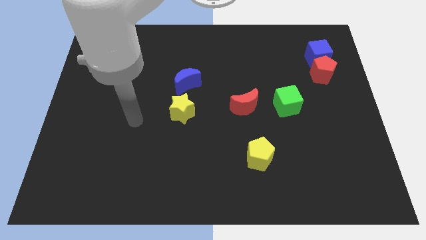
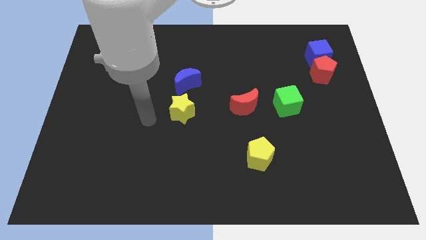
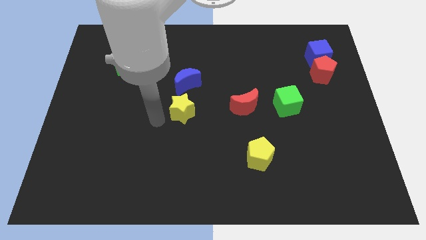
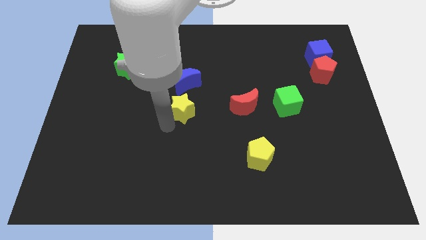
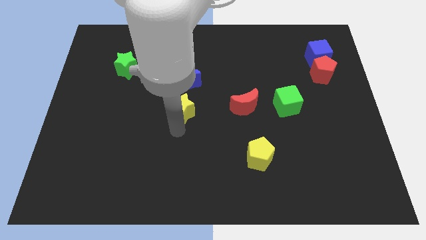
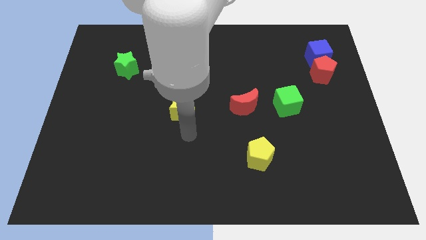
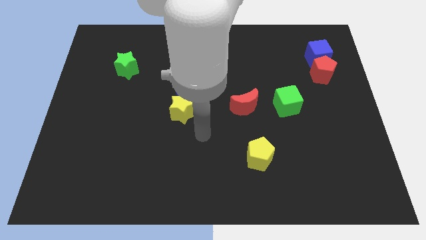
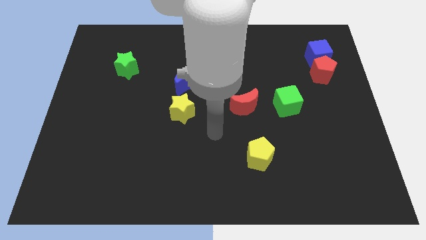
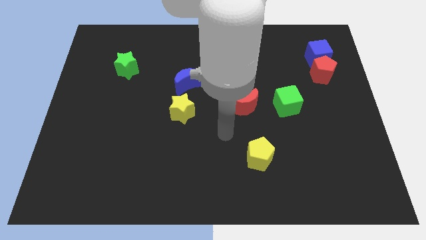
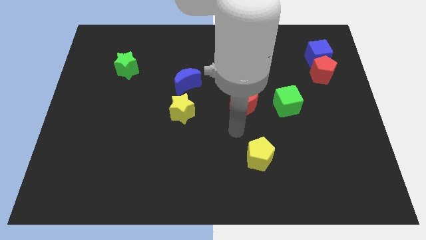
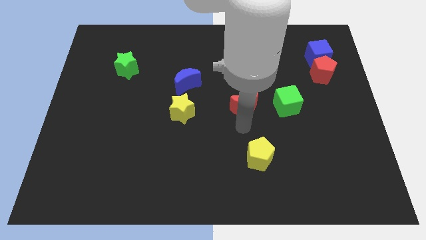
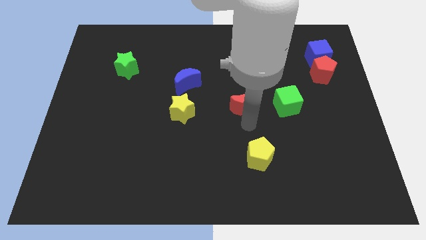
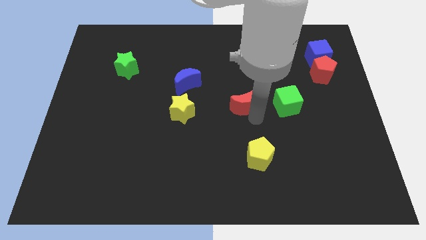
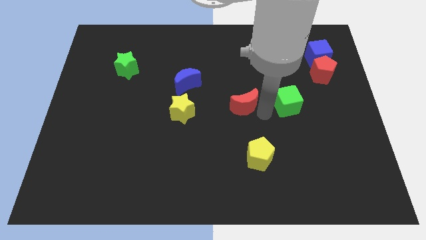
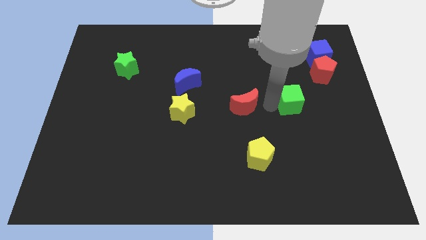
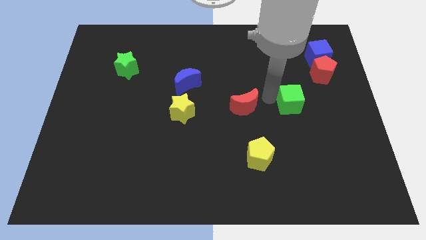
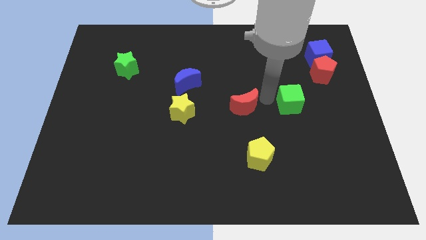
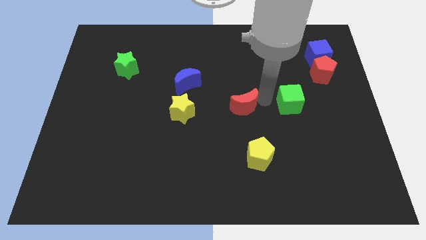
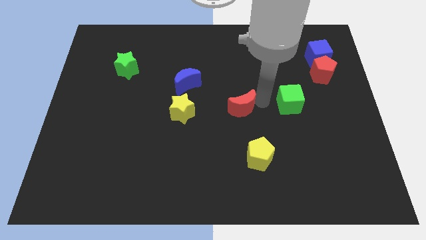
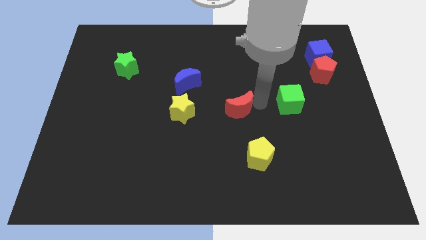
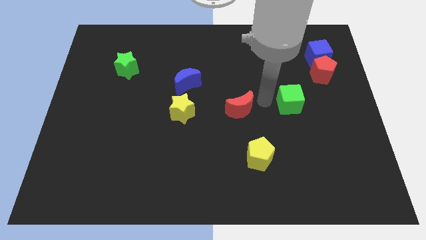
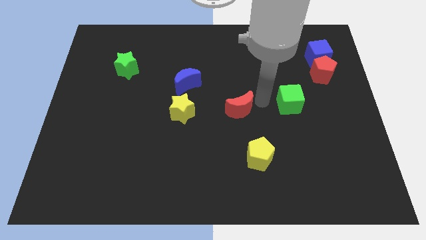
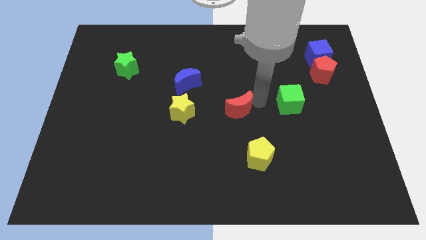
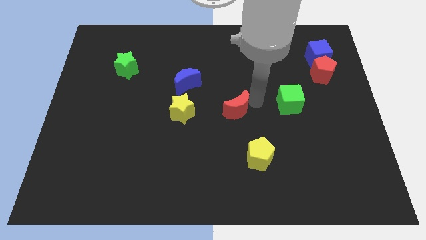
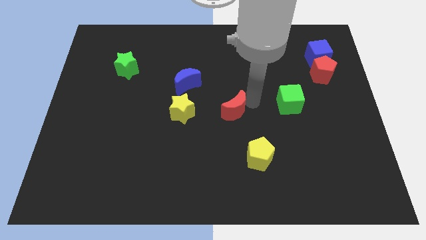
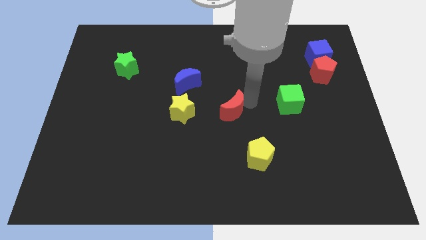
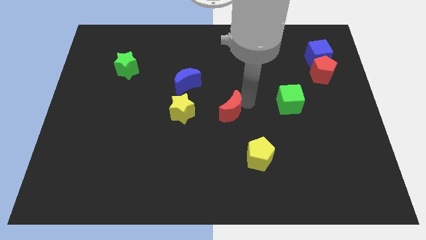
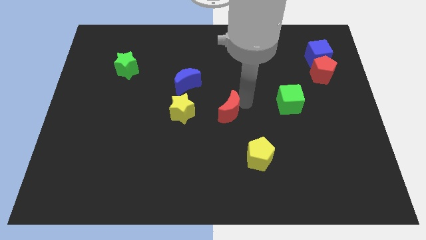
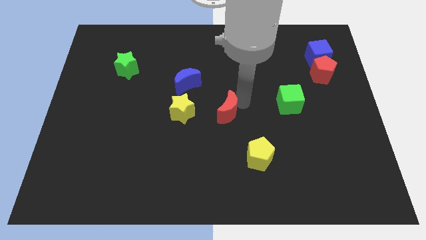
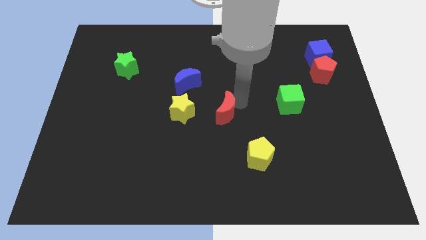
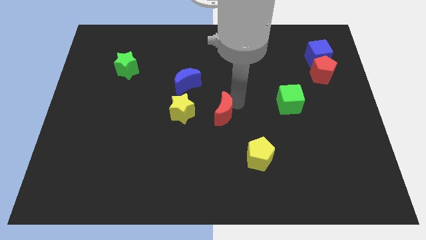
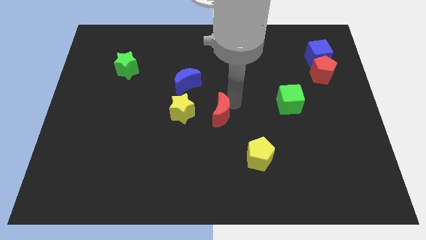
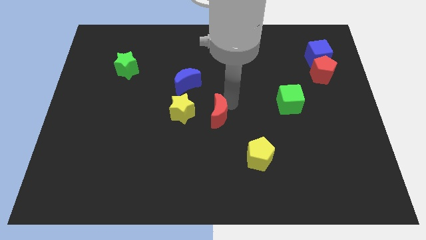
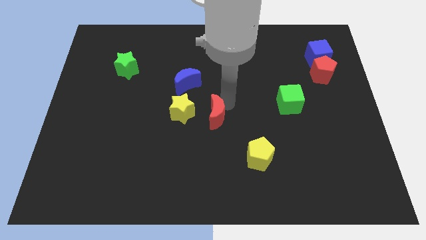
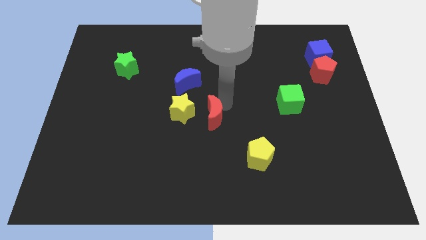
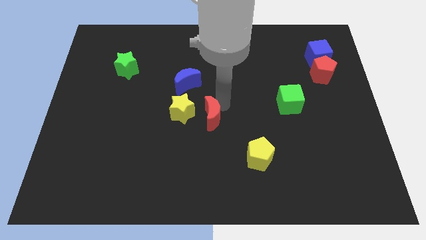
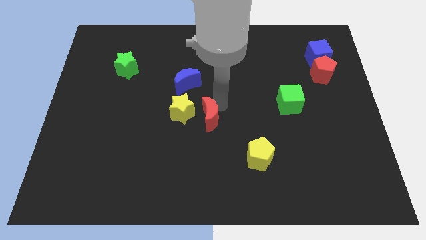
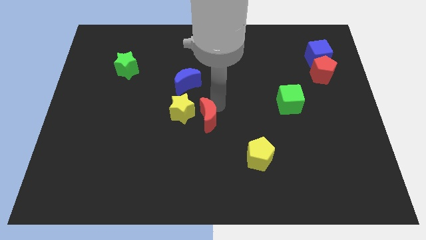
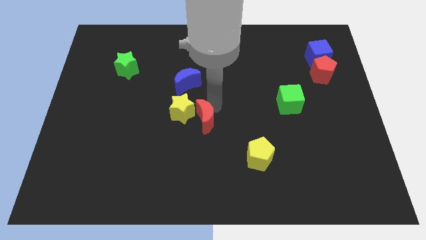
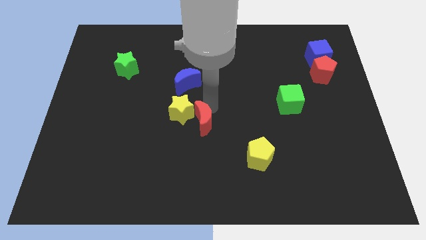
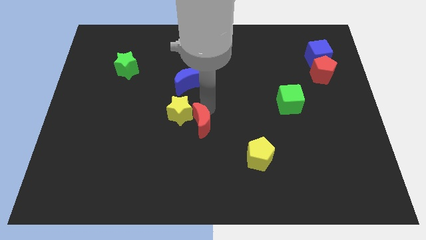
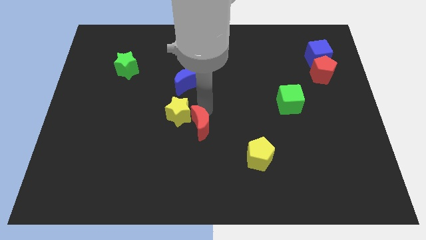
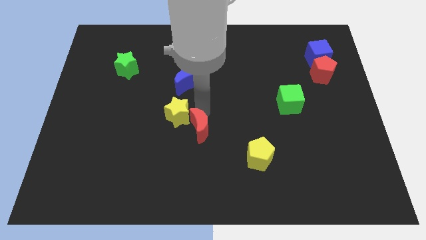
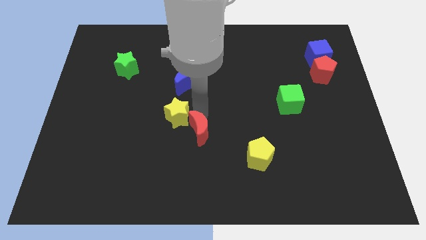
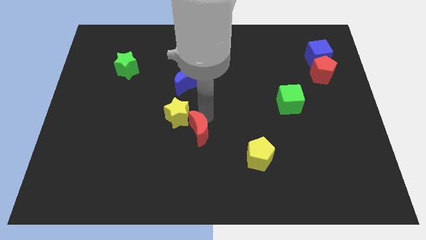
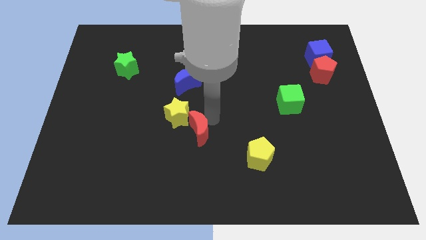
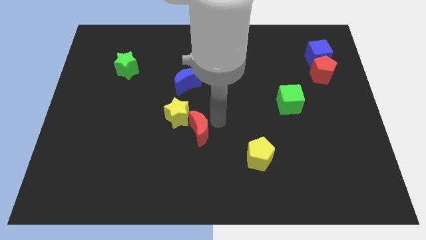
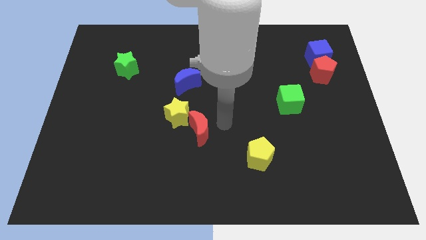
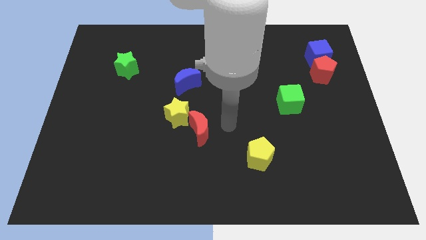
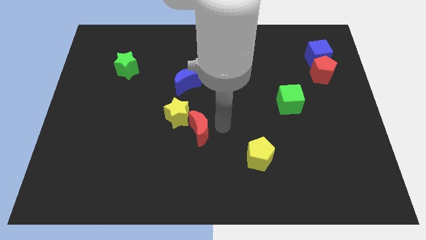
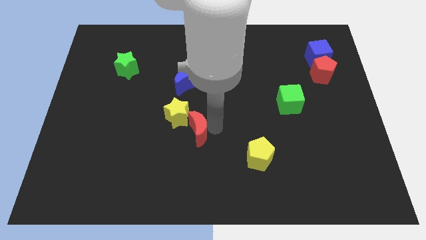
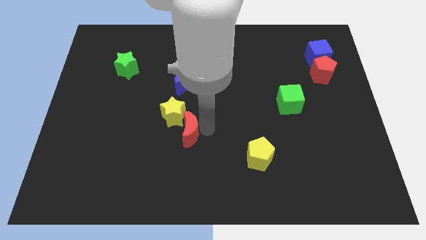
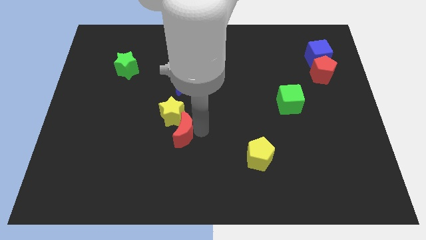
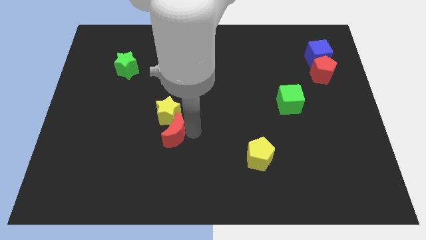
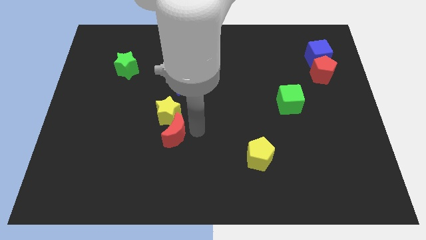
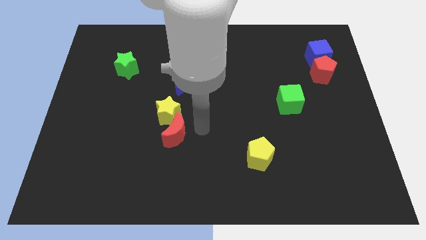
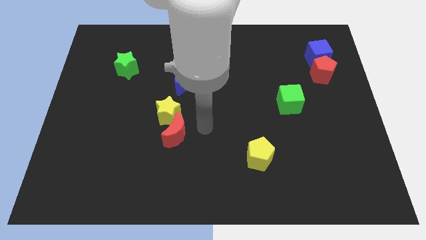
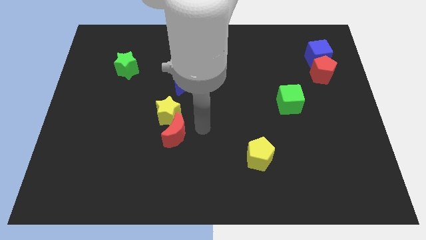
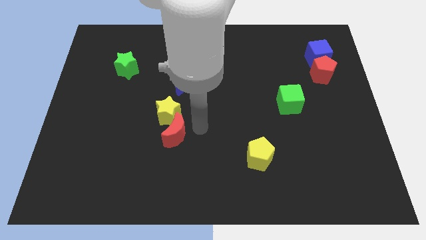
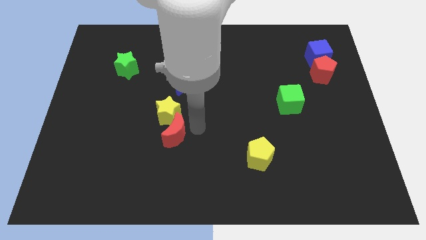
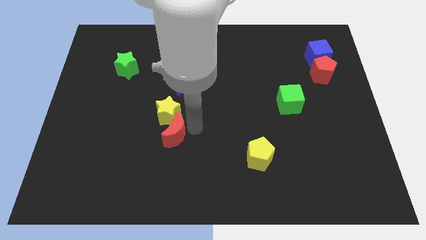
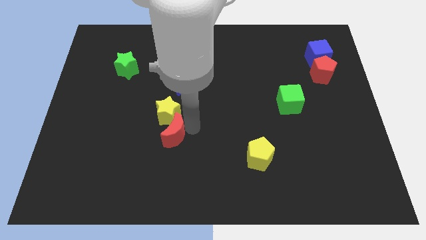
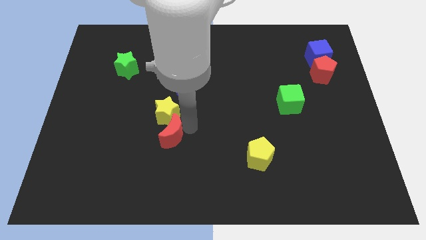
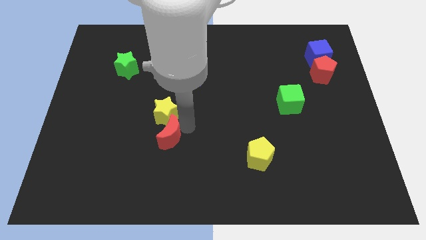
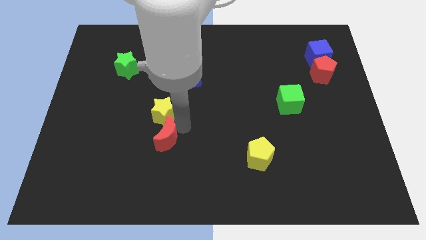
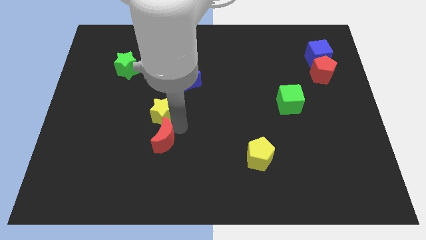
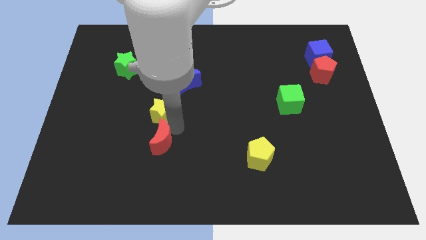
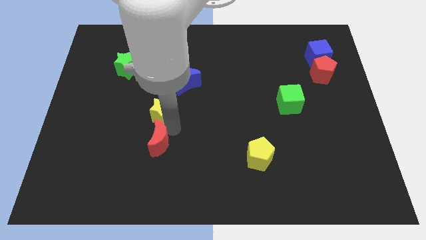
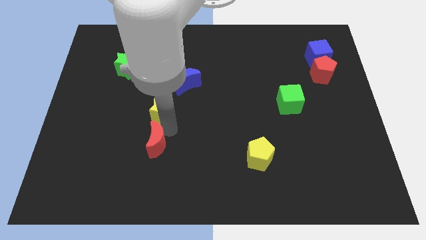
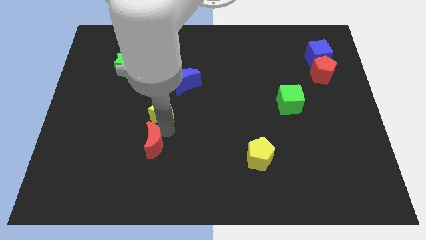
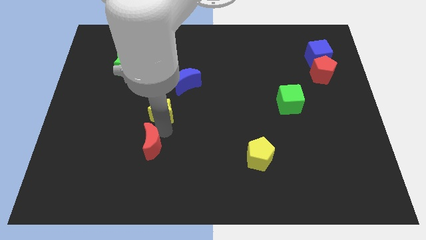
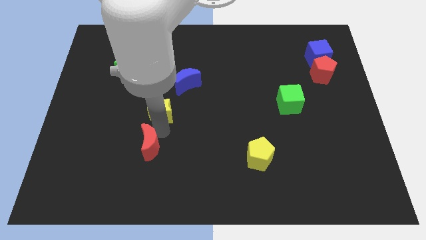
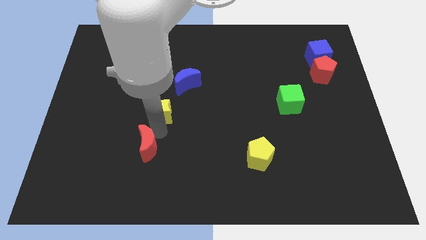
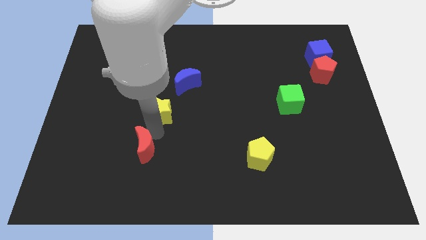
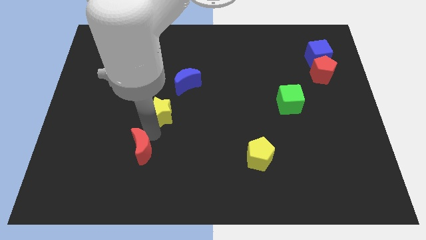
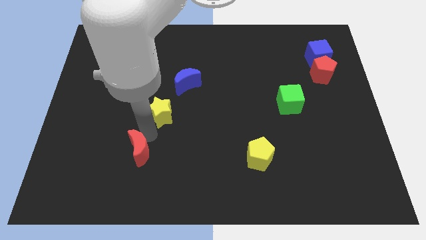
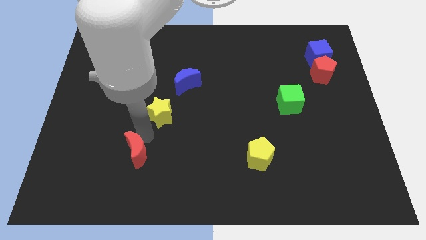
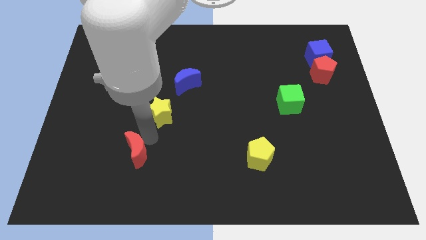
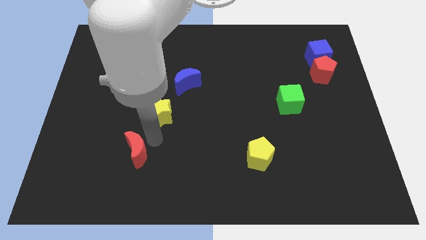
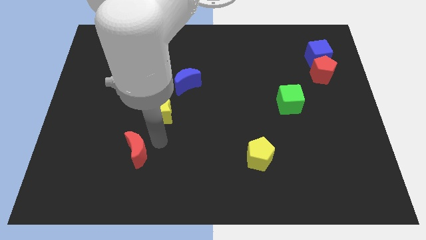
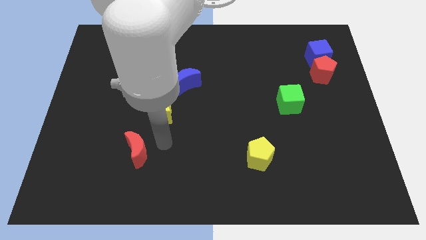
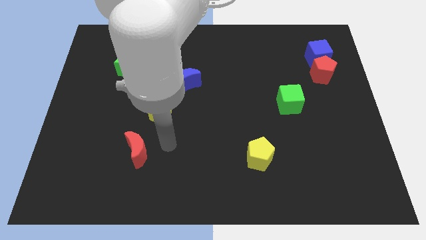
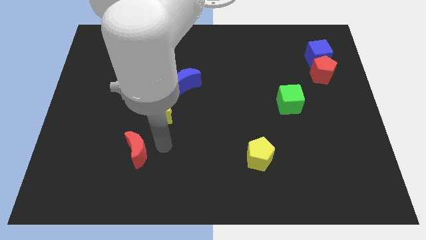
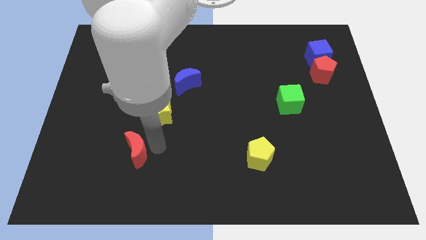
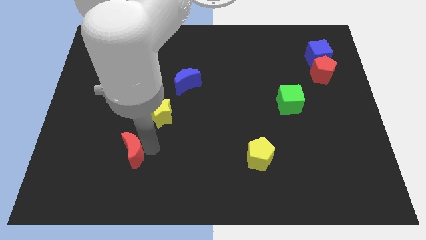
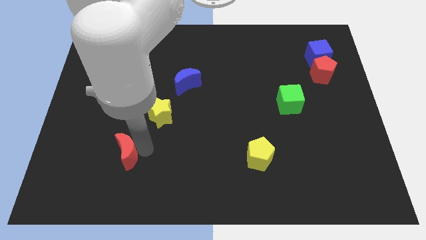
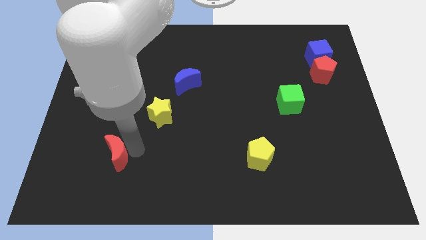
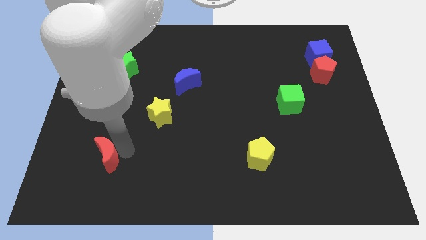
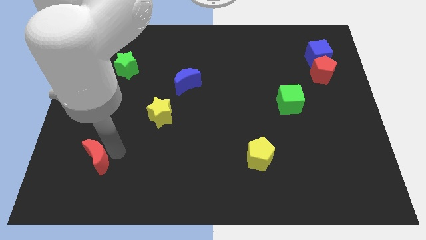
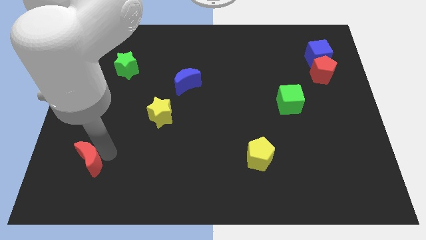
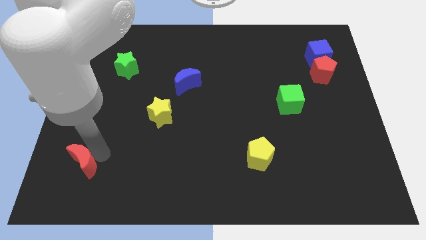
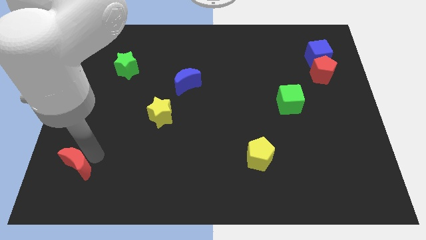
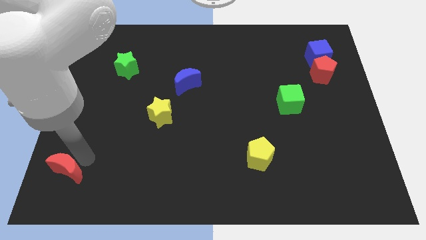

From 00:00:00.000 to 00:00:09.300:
move the red moon to the bottom left corner
